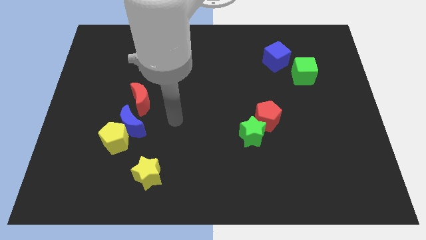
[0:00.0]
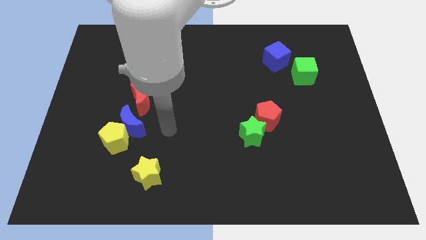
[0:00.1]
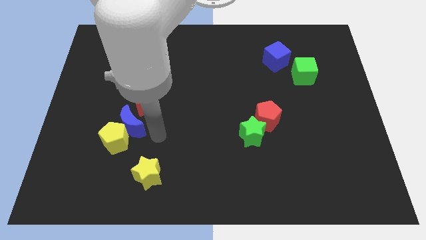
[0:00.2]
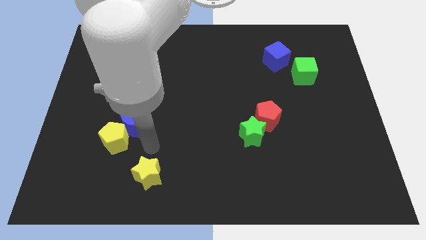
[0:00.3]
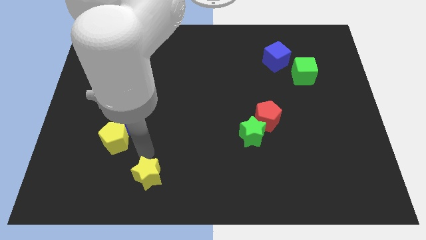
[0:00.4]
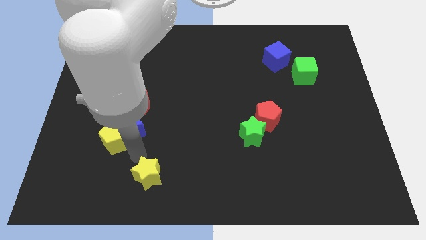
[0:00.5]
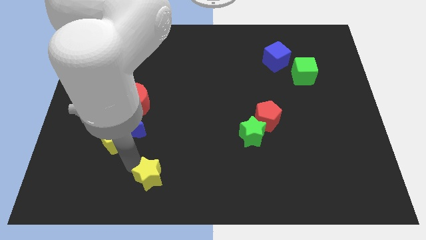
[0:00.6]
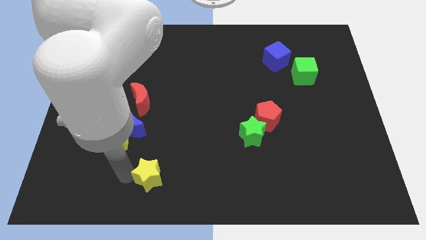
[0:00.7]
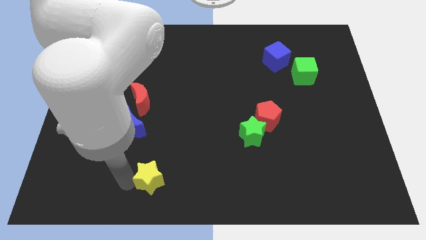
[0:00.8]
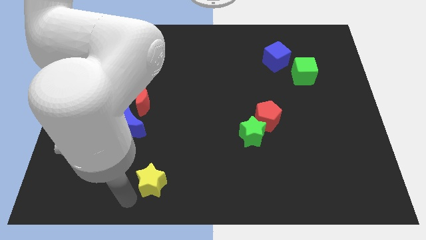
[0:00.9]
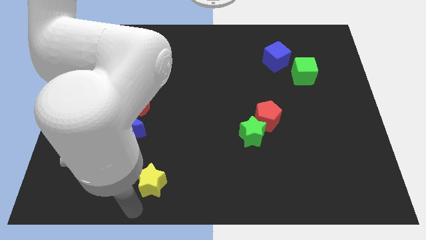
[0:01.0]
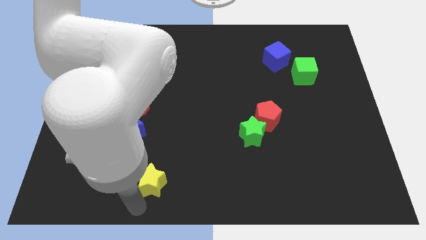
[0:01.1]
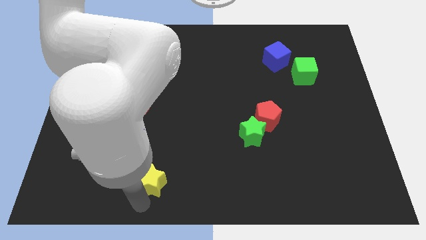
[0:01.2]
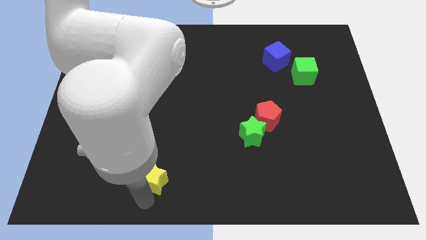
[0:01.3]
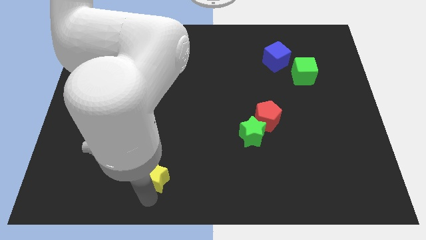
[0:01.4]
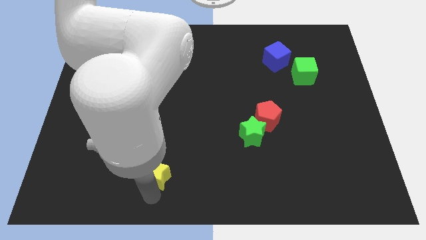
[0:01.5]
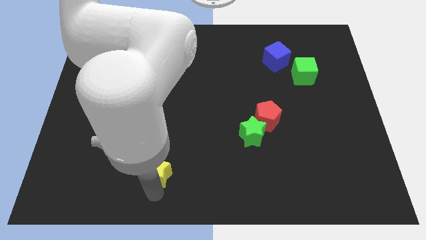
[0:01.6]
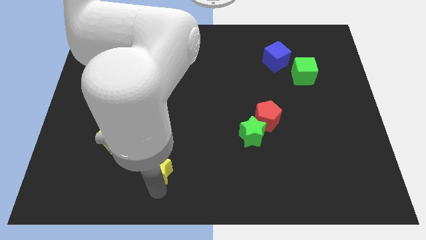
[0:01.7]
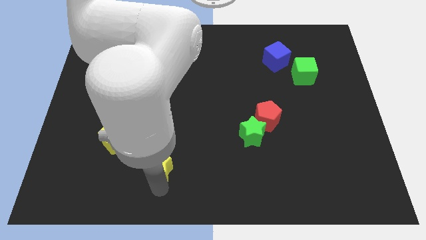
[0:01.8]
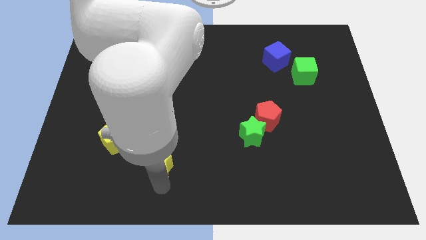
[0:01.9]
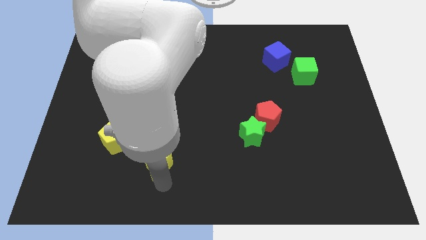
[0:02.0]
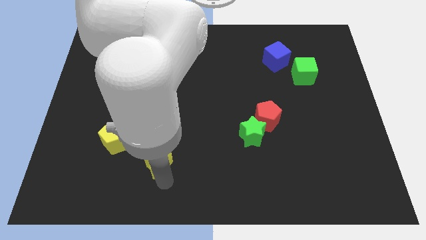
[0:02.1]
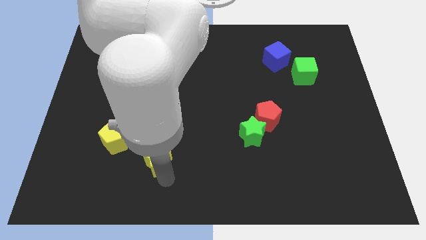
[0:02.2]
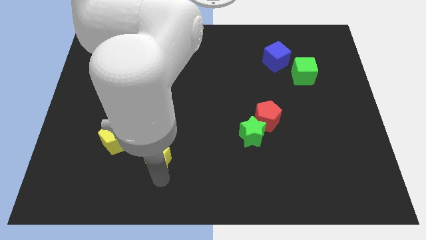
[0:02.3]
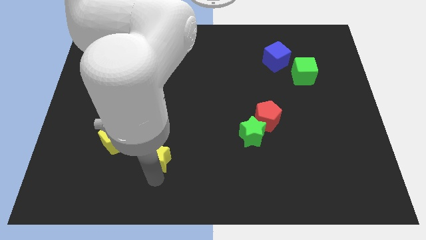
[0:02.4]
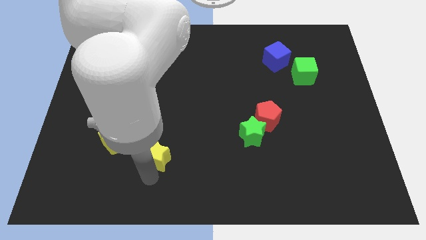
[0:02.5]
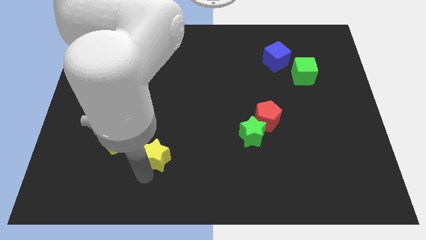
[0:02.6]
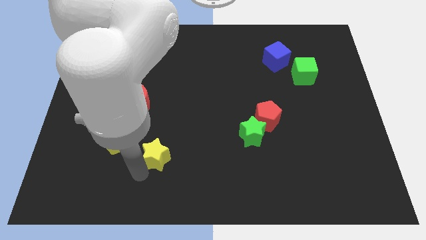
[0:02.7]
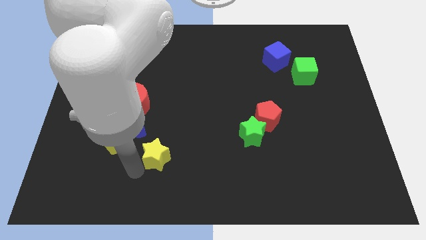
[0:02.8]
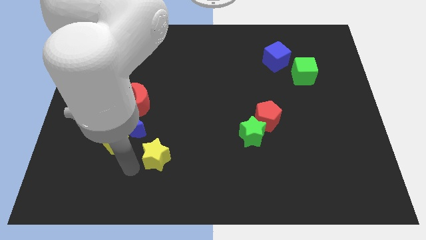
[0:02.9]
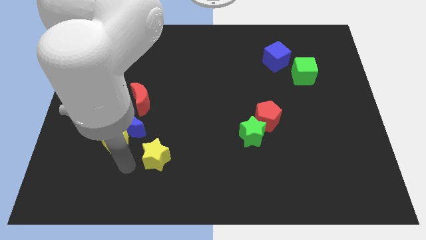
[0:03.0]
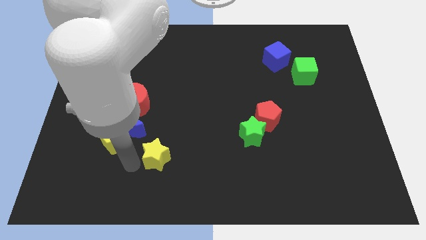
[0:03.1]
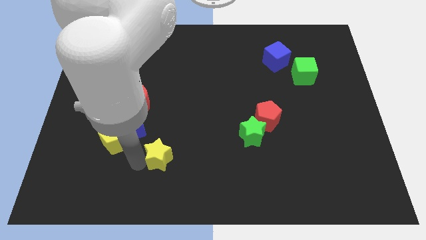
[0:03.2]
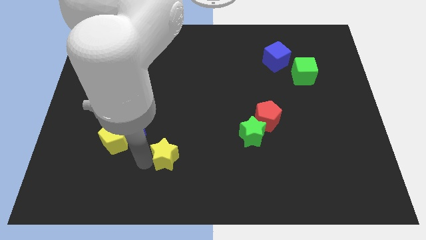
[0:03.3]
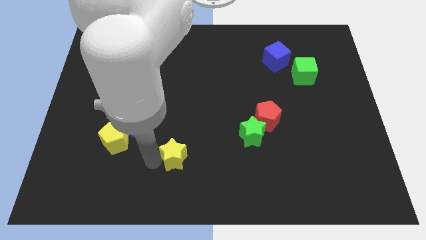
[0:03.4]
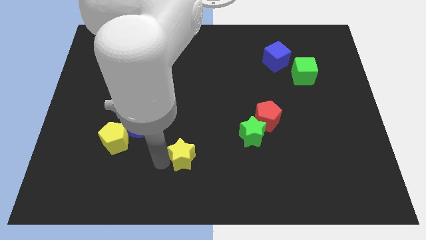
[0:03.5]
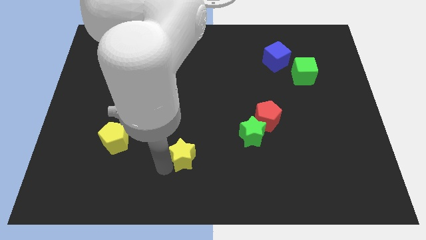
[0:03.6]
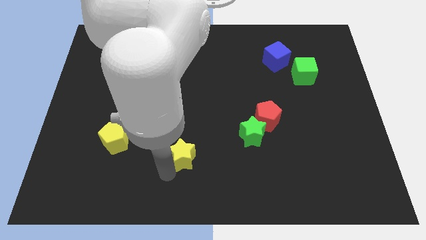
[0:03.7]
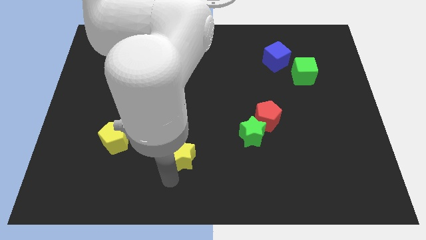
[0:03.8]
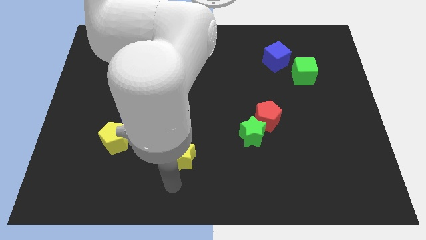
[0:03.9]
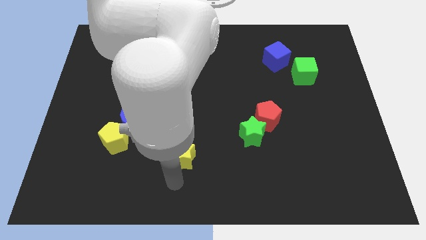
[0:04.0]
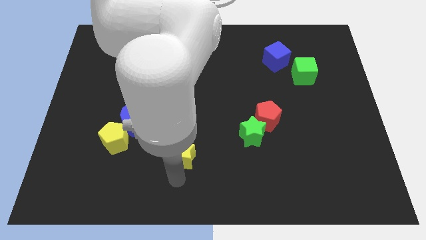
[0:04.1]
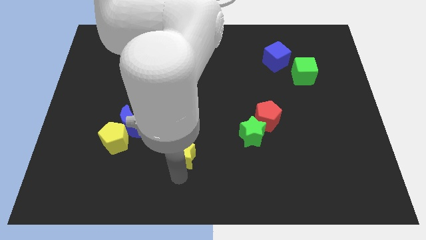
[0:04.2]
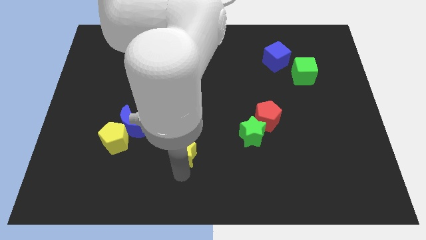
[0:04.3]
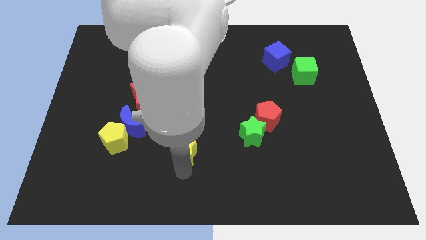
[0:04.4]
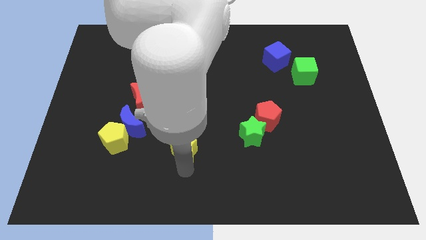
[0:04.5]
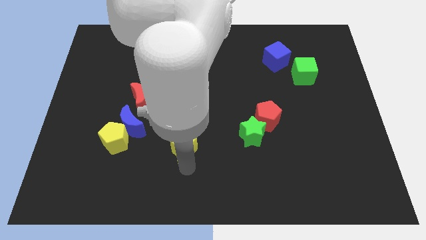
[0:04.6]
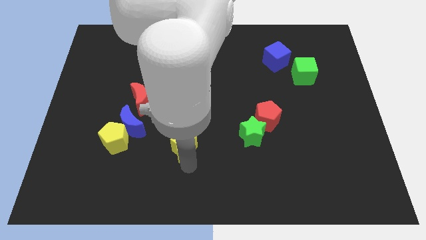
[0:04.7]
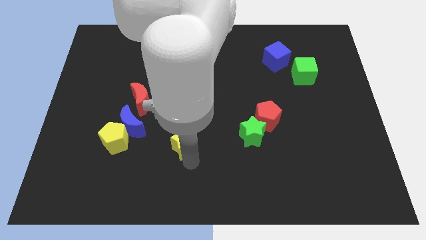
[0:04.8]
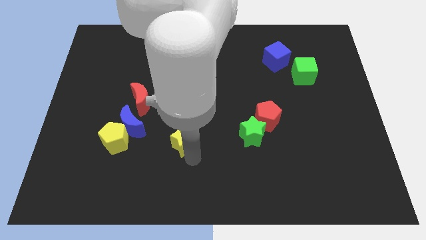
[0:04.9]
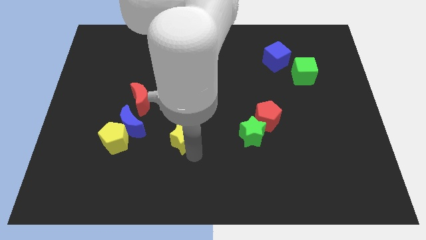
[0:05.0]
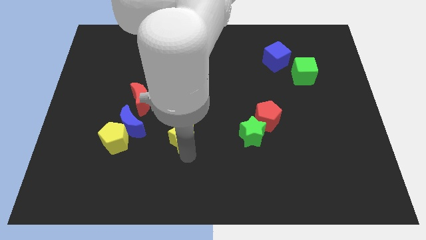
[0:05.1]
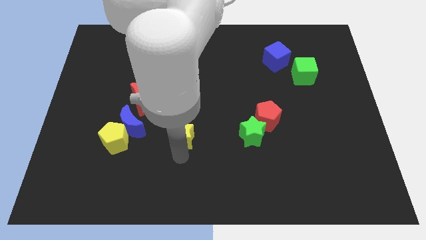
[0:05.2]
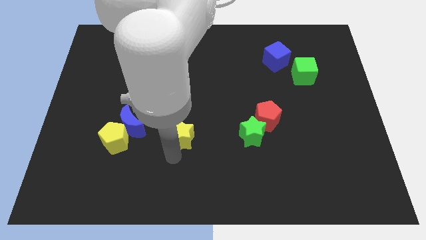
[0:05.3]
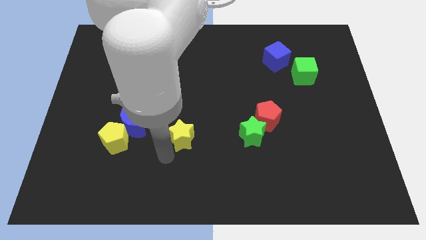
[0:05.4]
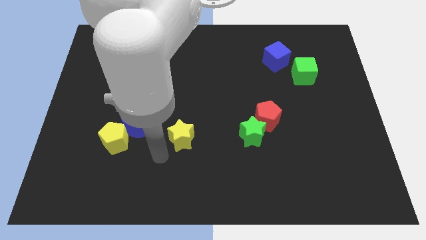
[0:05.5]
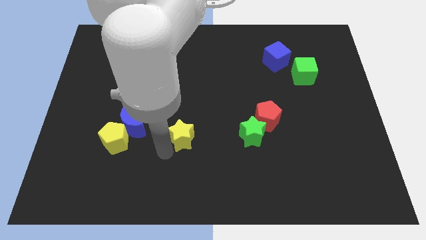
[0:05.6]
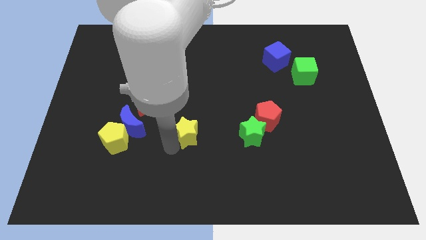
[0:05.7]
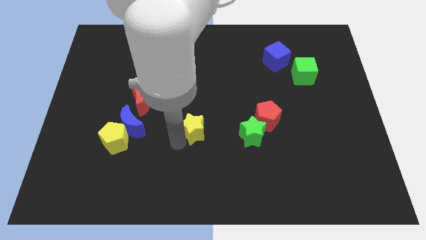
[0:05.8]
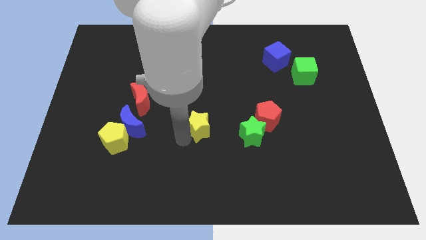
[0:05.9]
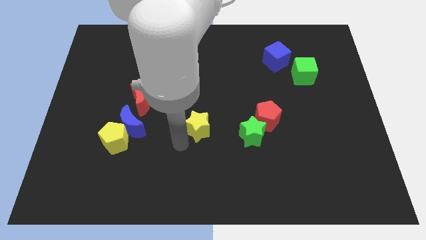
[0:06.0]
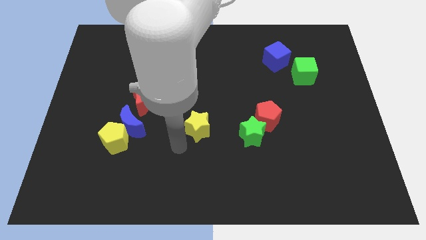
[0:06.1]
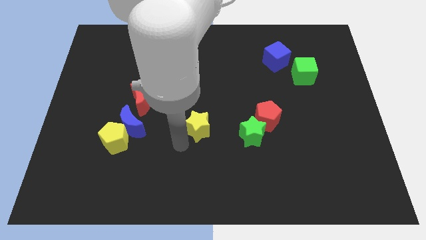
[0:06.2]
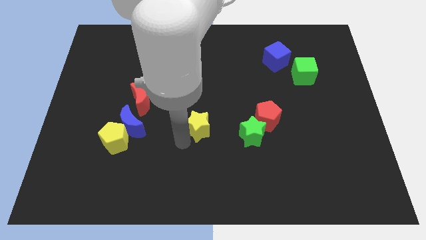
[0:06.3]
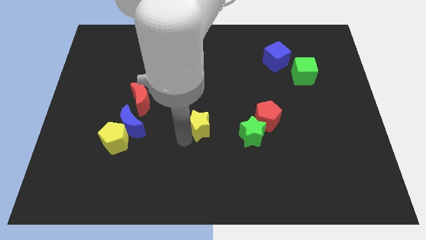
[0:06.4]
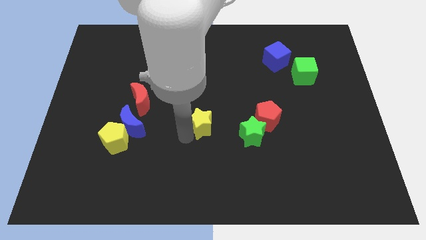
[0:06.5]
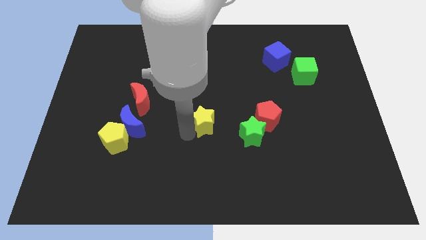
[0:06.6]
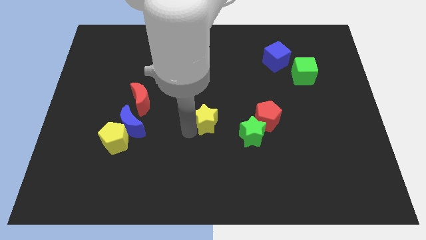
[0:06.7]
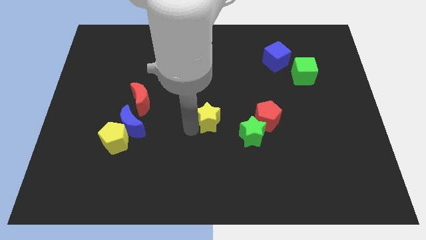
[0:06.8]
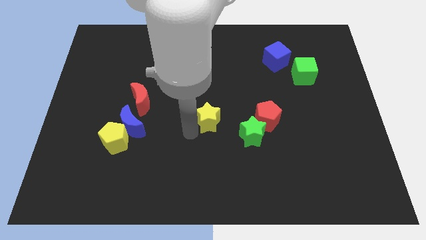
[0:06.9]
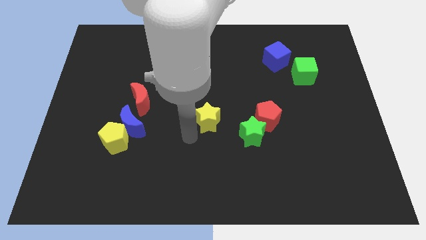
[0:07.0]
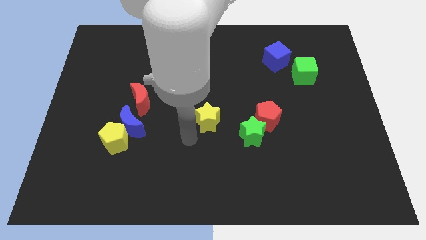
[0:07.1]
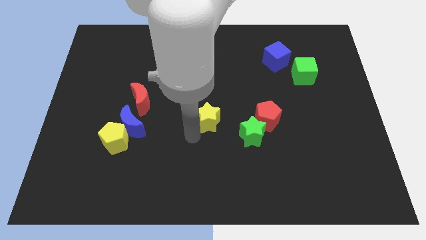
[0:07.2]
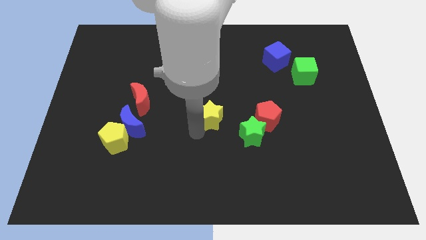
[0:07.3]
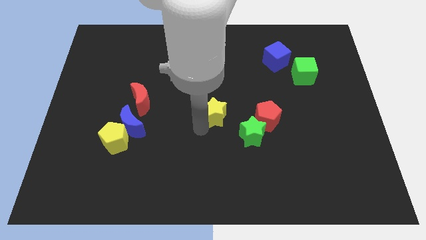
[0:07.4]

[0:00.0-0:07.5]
slide the yellow star upwards and to the right

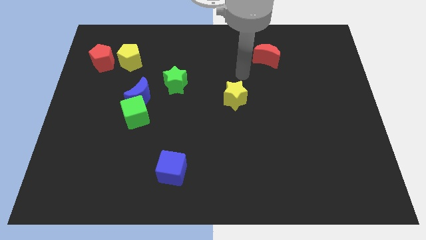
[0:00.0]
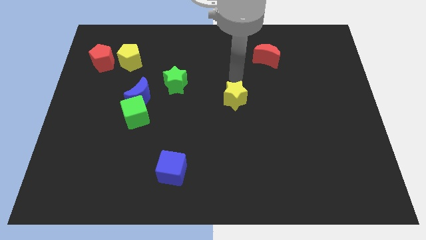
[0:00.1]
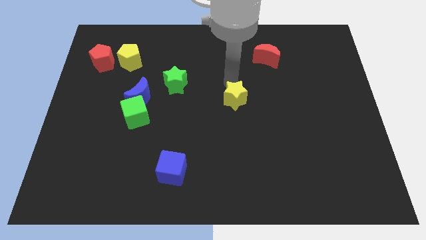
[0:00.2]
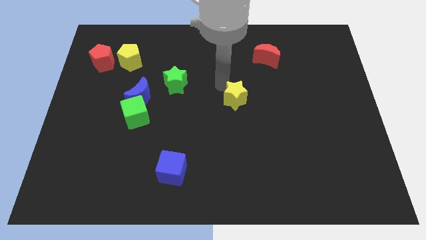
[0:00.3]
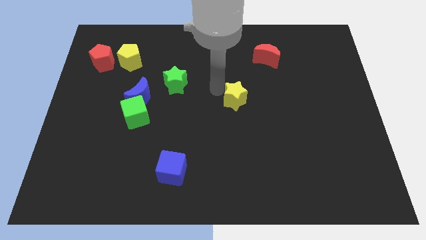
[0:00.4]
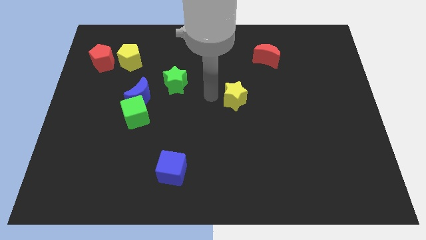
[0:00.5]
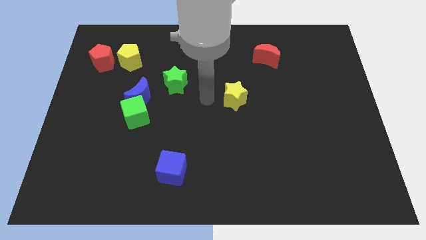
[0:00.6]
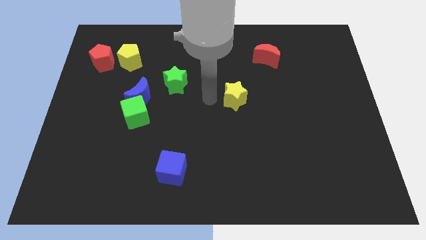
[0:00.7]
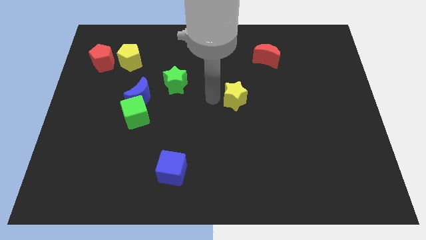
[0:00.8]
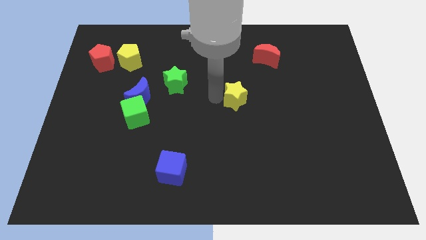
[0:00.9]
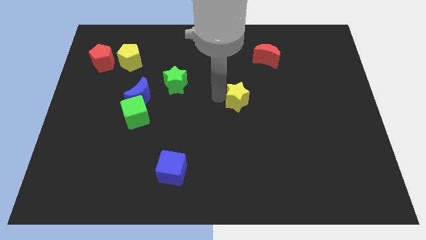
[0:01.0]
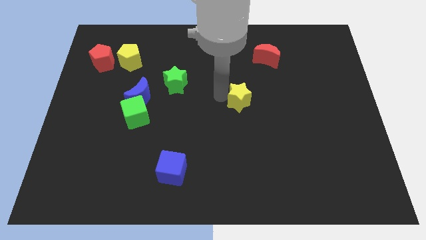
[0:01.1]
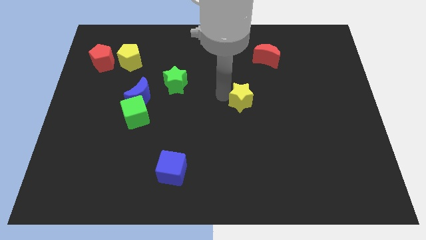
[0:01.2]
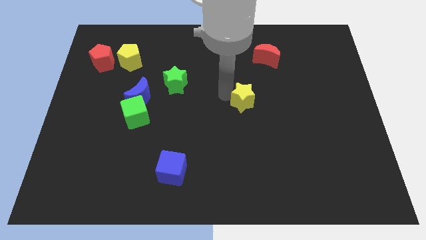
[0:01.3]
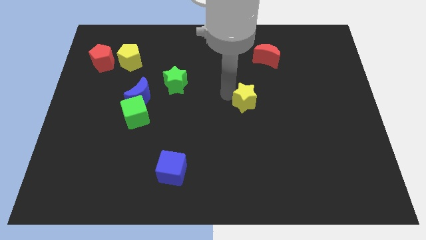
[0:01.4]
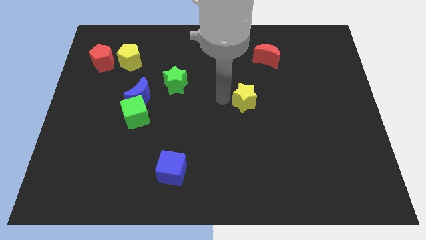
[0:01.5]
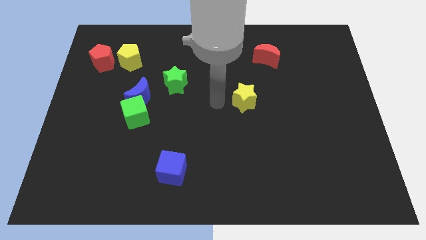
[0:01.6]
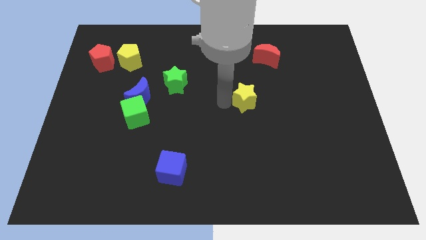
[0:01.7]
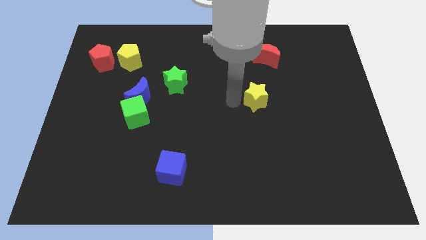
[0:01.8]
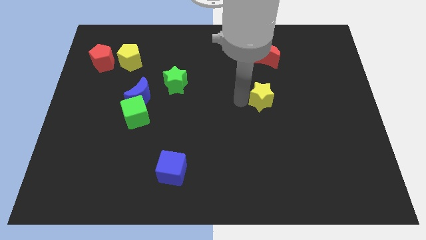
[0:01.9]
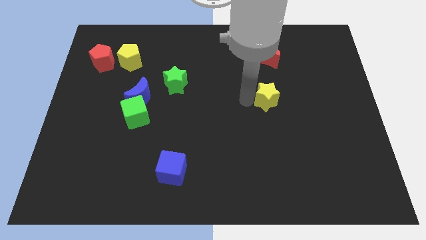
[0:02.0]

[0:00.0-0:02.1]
slightly push the yellow star right
